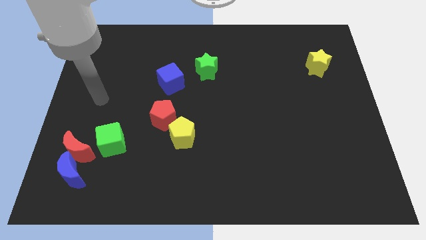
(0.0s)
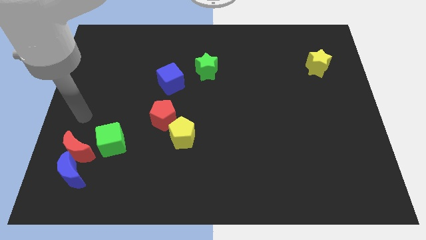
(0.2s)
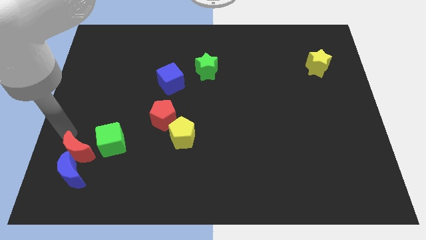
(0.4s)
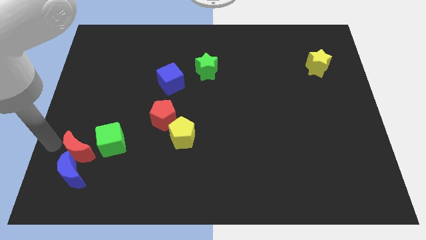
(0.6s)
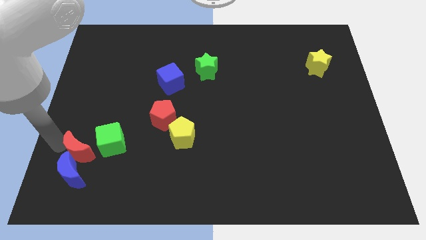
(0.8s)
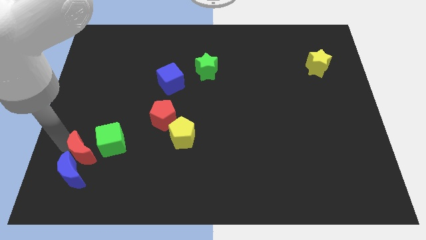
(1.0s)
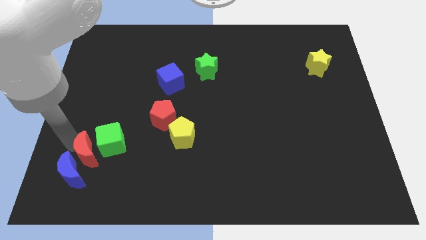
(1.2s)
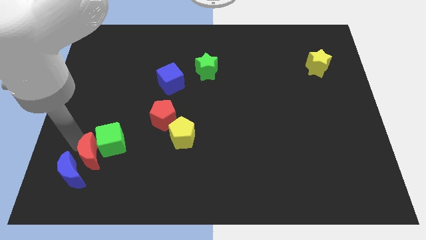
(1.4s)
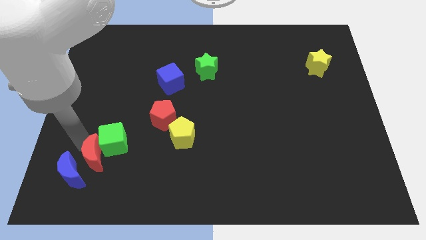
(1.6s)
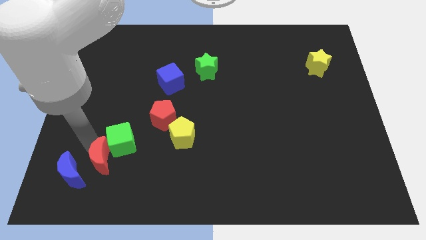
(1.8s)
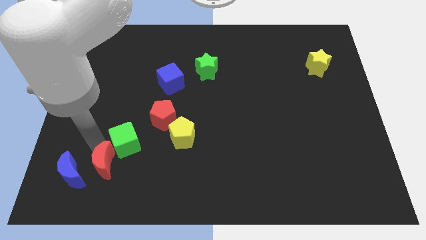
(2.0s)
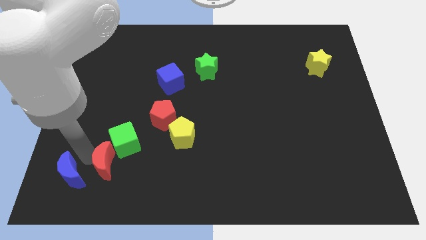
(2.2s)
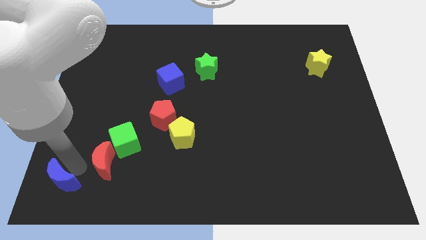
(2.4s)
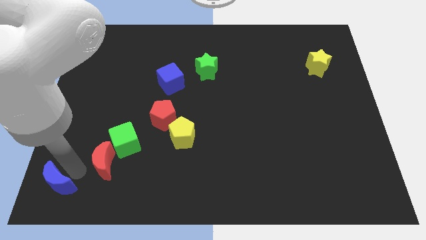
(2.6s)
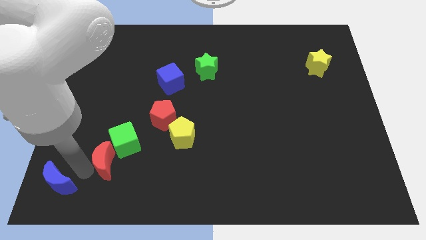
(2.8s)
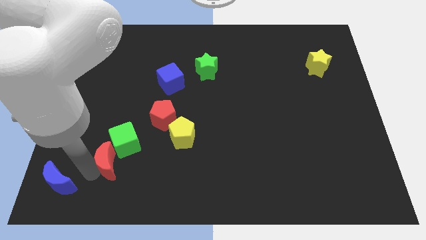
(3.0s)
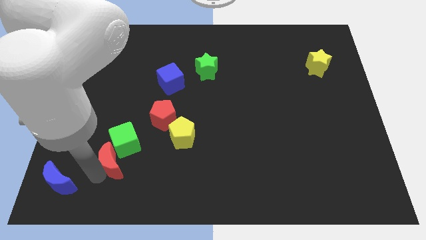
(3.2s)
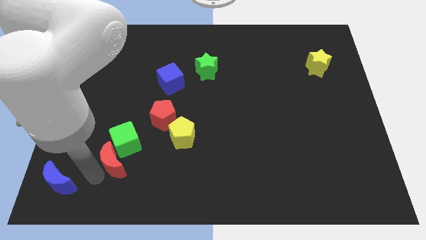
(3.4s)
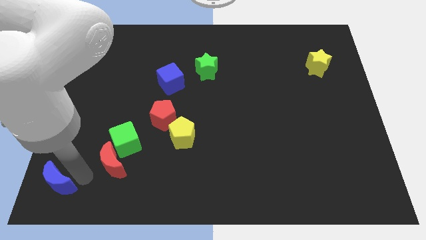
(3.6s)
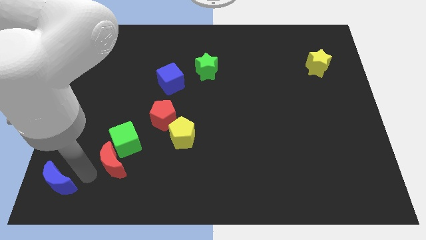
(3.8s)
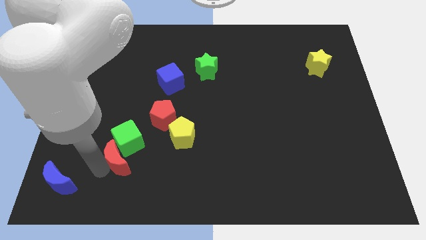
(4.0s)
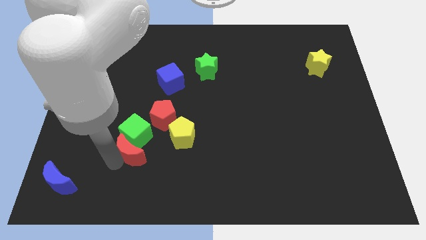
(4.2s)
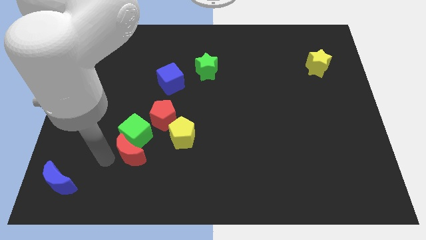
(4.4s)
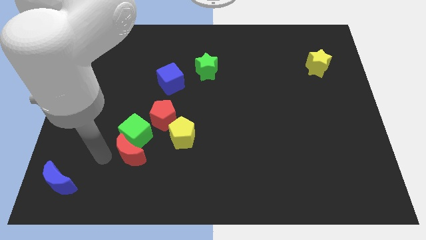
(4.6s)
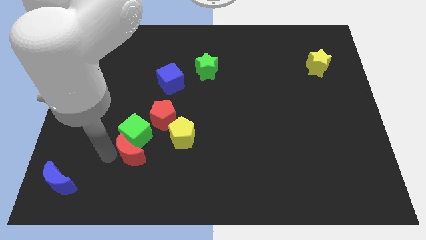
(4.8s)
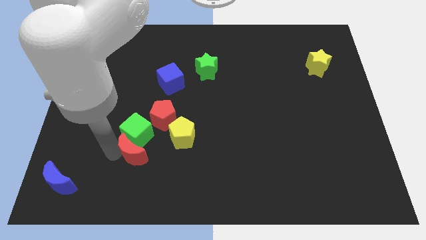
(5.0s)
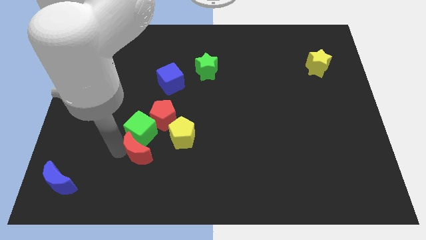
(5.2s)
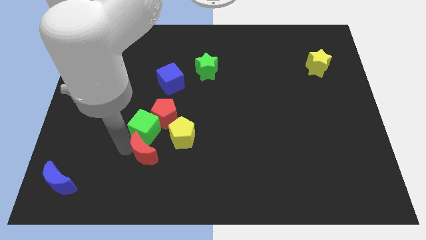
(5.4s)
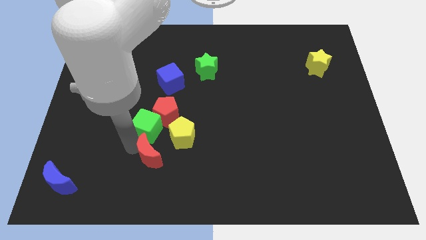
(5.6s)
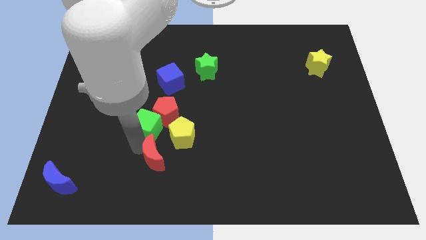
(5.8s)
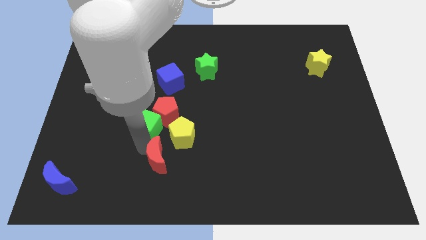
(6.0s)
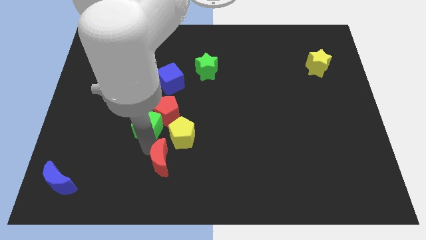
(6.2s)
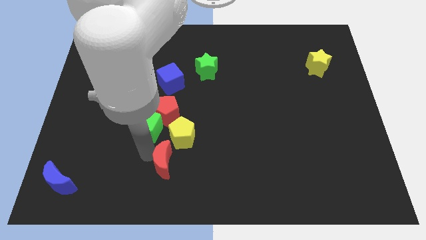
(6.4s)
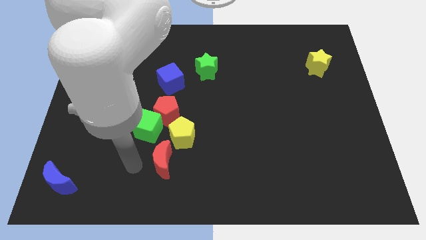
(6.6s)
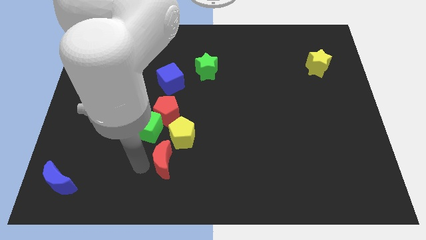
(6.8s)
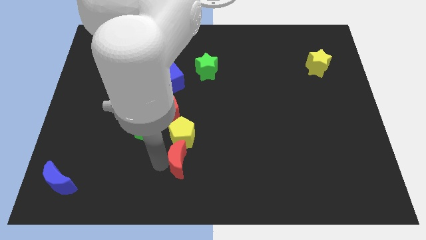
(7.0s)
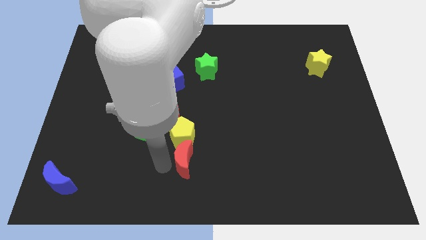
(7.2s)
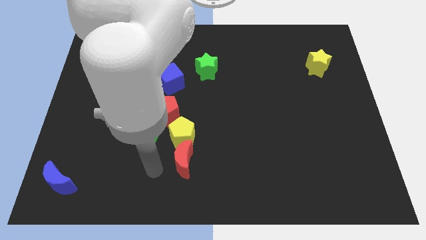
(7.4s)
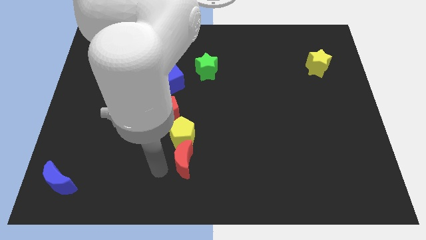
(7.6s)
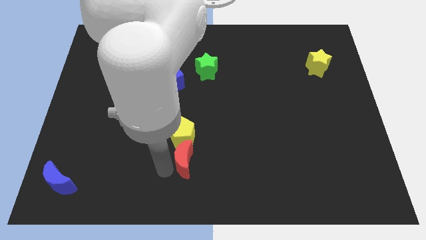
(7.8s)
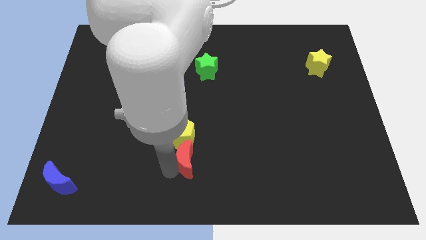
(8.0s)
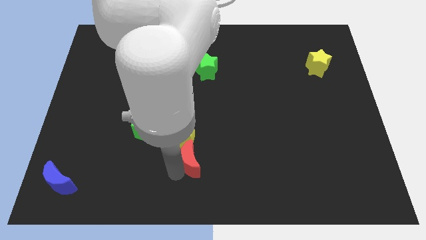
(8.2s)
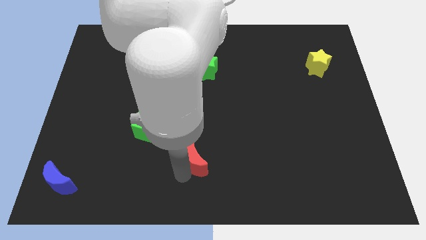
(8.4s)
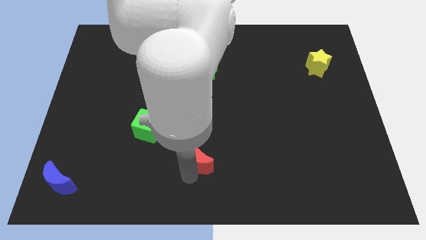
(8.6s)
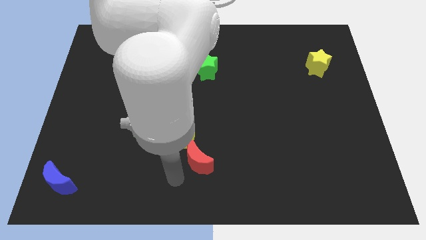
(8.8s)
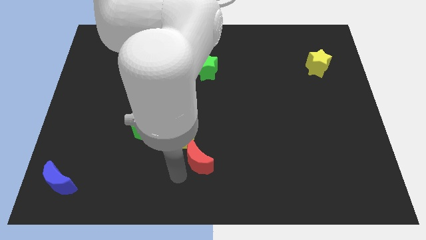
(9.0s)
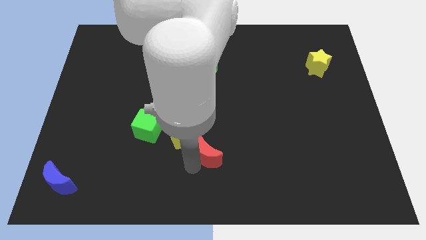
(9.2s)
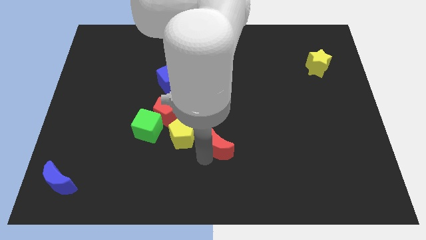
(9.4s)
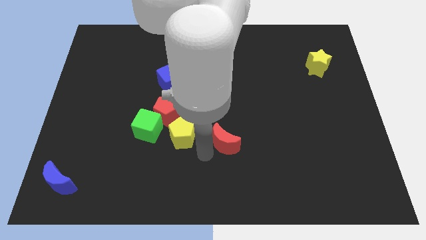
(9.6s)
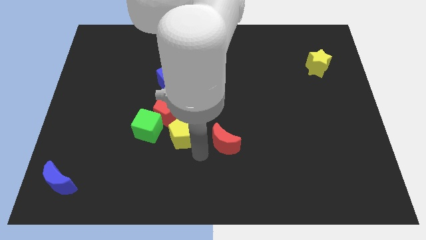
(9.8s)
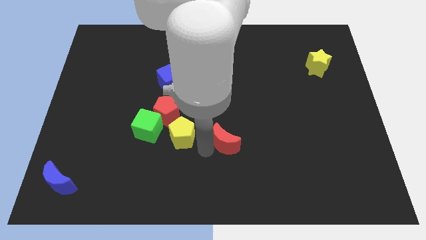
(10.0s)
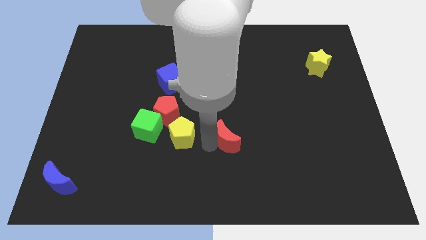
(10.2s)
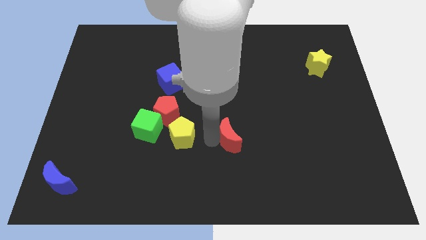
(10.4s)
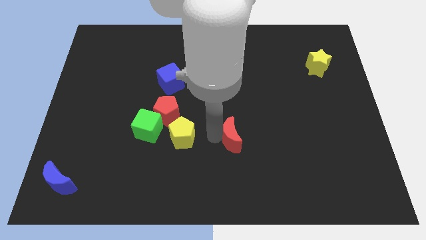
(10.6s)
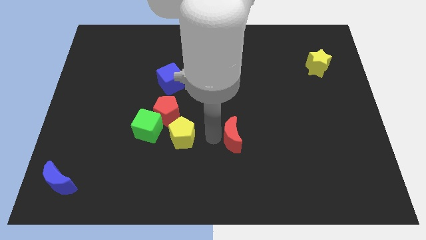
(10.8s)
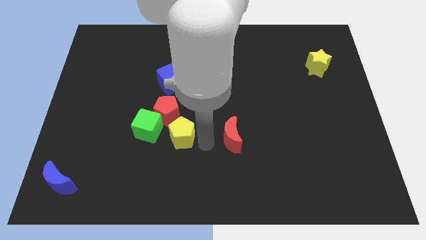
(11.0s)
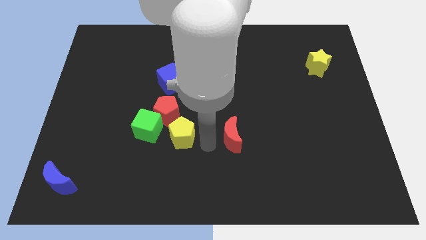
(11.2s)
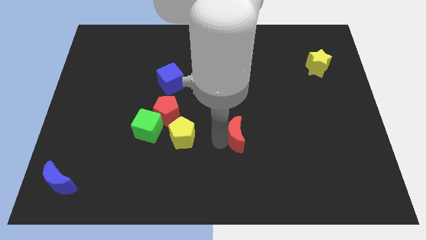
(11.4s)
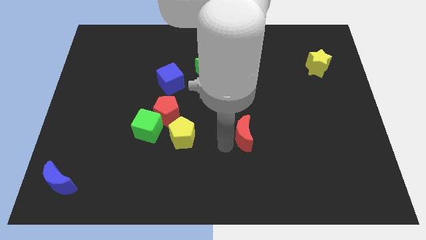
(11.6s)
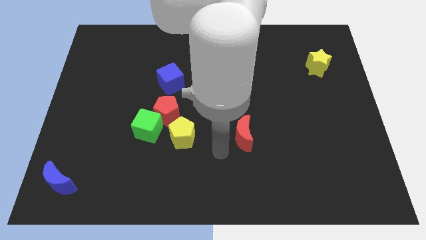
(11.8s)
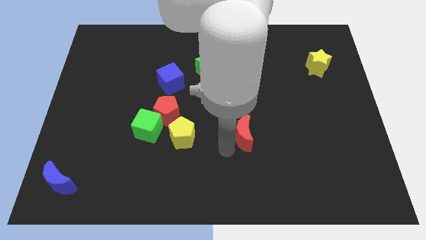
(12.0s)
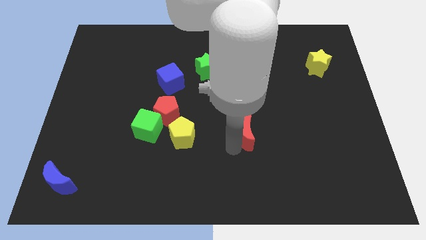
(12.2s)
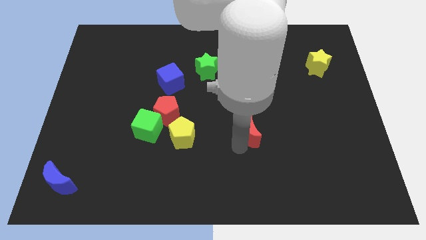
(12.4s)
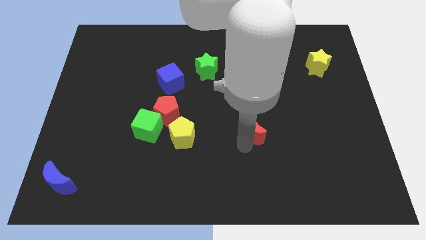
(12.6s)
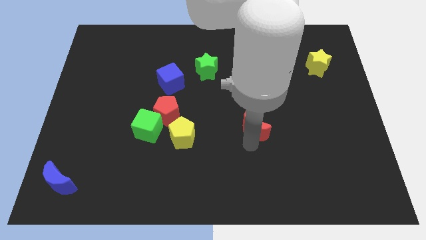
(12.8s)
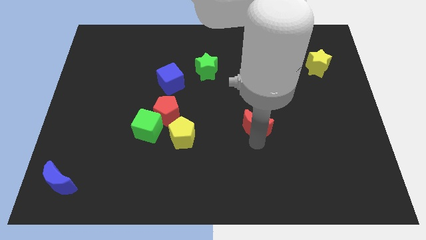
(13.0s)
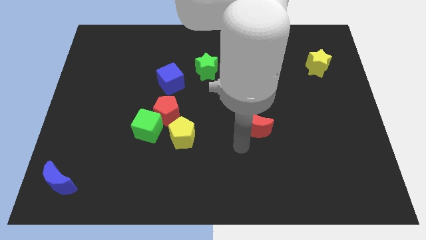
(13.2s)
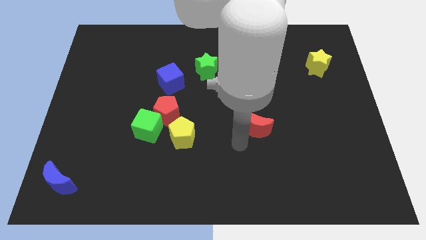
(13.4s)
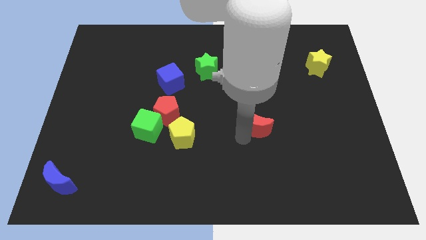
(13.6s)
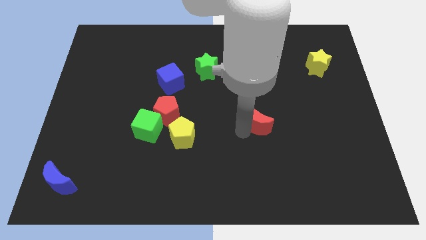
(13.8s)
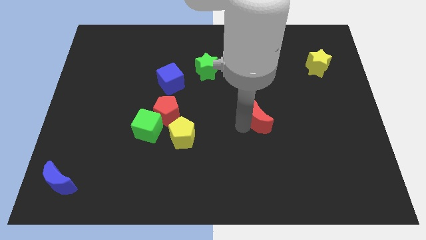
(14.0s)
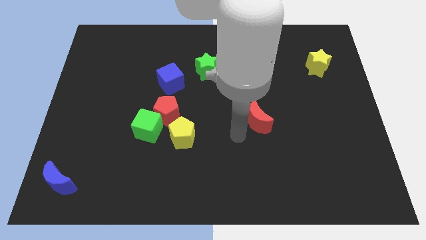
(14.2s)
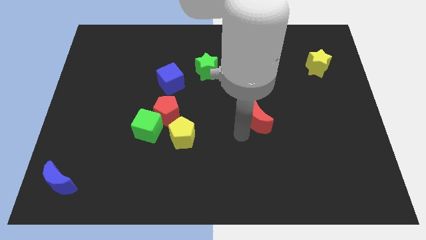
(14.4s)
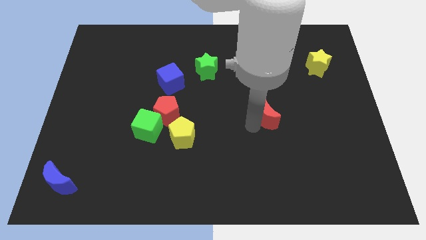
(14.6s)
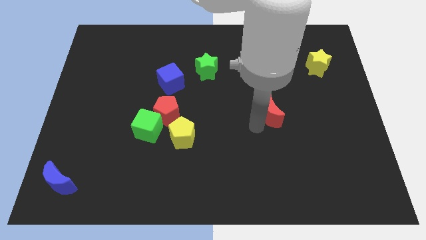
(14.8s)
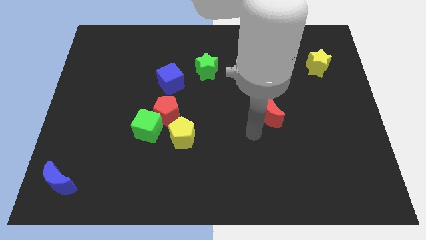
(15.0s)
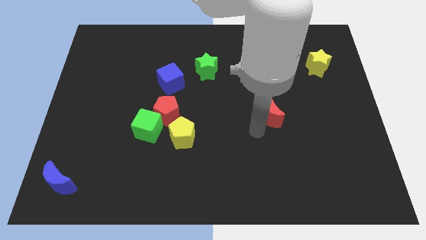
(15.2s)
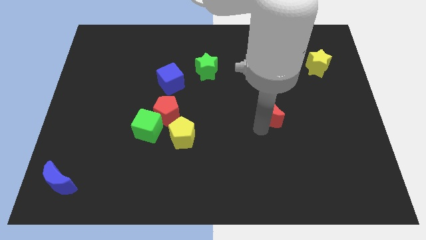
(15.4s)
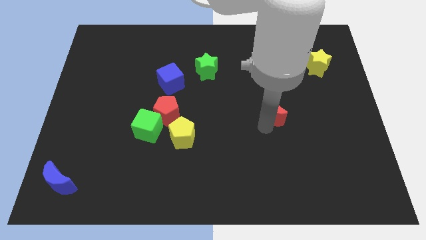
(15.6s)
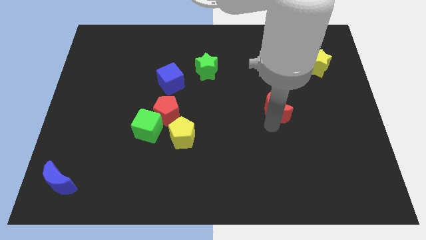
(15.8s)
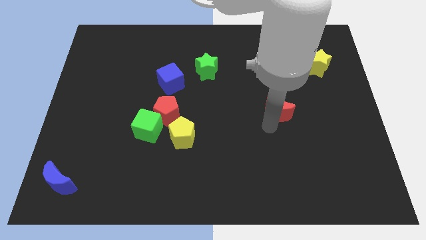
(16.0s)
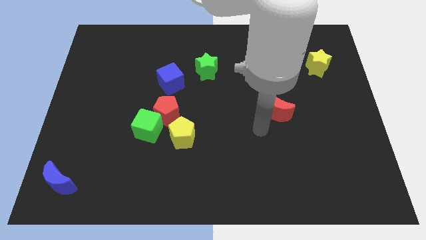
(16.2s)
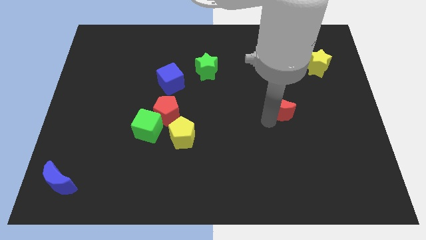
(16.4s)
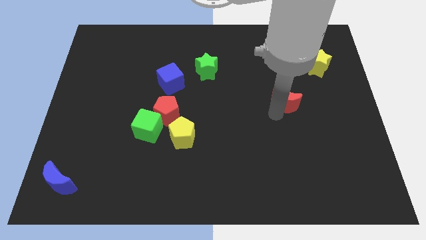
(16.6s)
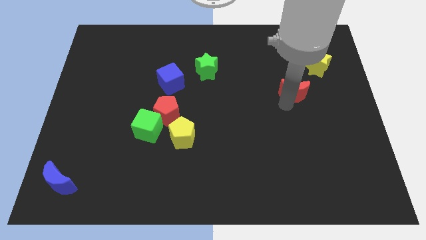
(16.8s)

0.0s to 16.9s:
move the red moon to the bottom left of the yellow star
